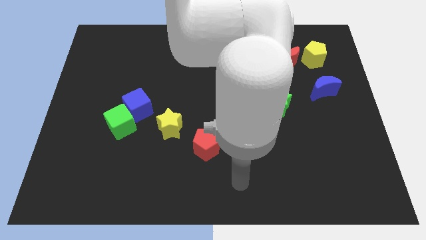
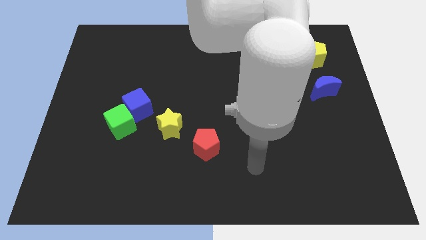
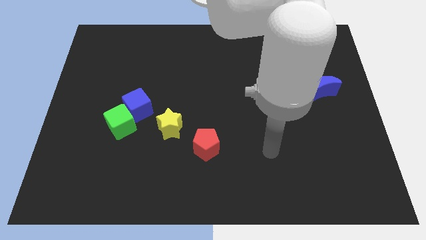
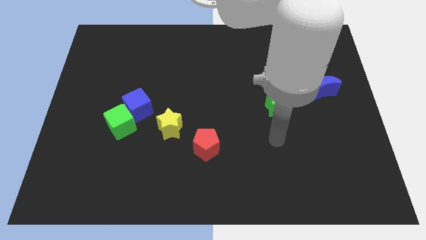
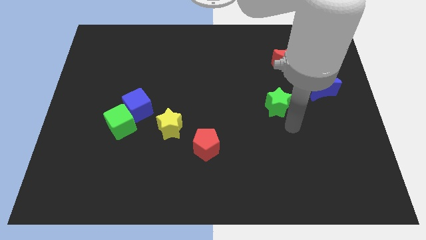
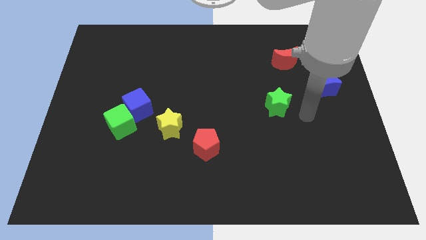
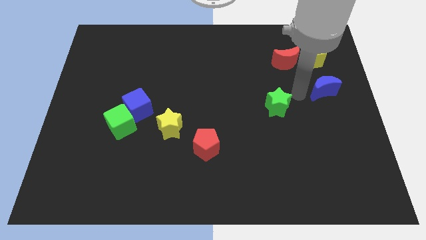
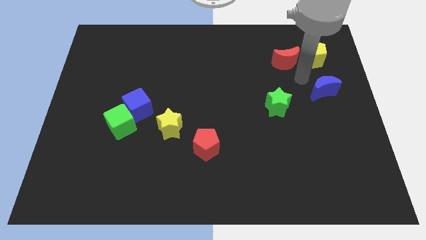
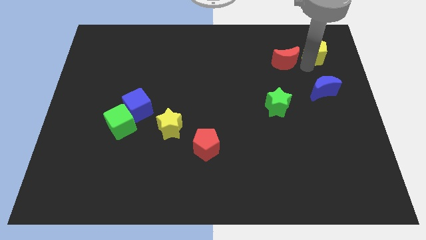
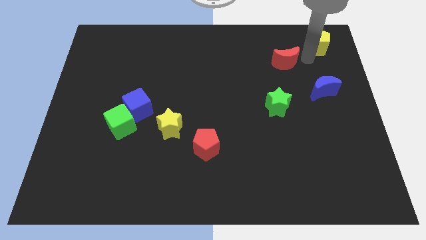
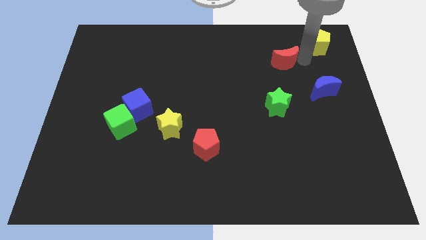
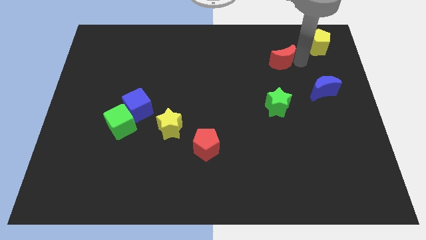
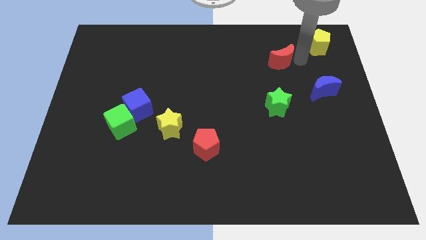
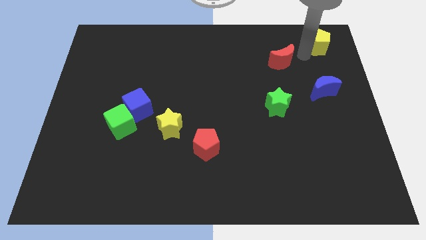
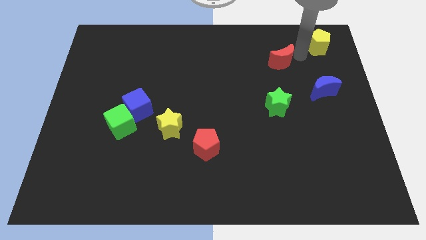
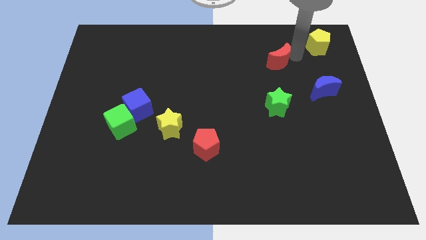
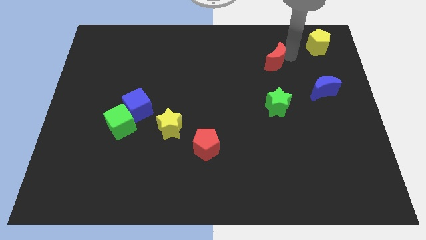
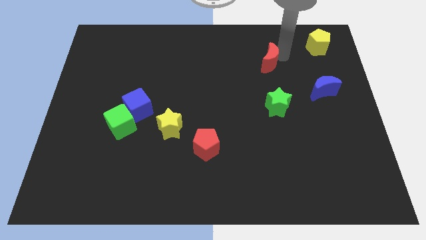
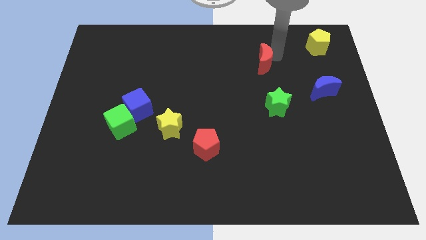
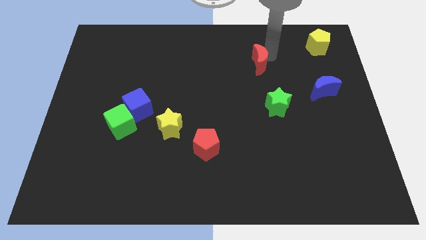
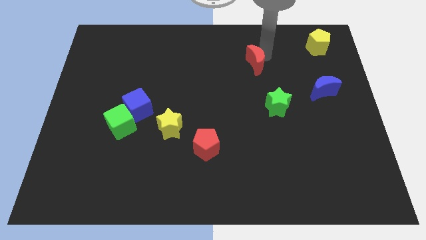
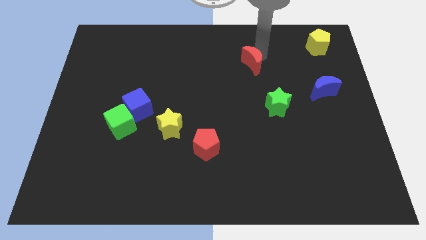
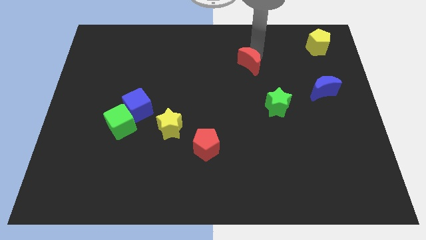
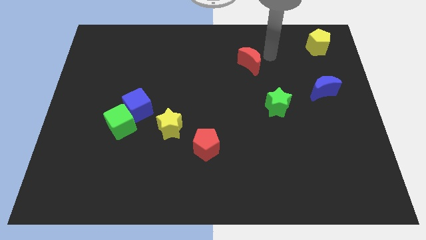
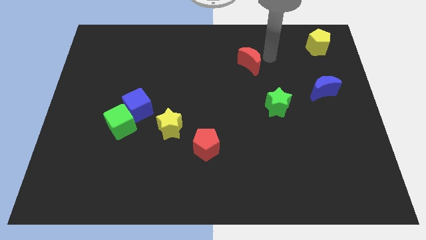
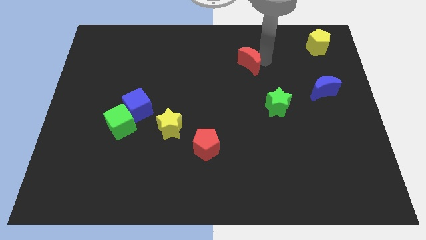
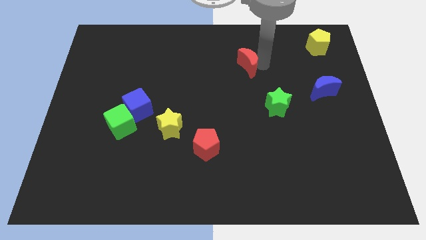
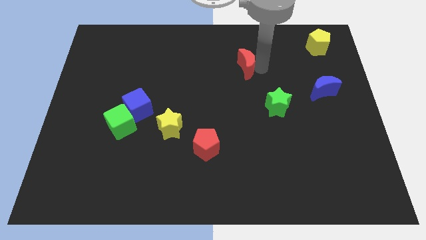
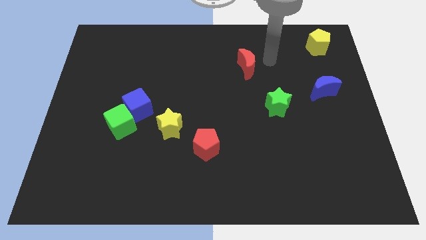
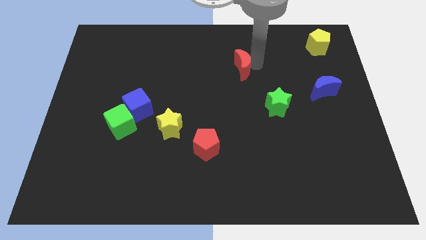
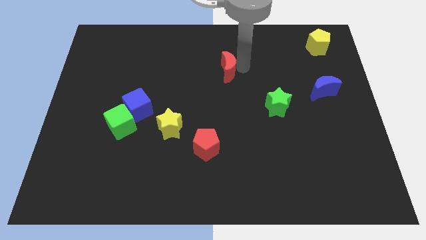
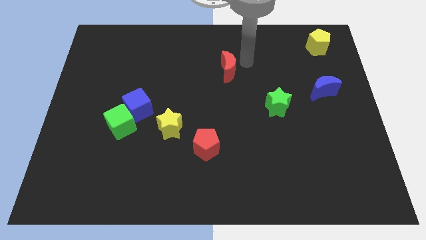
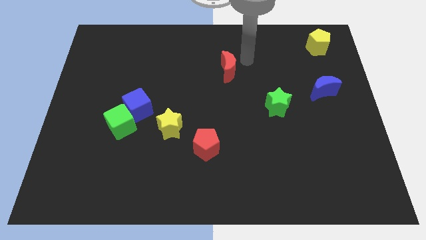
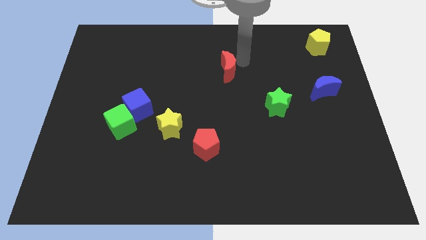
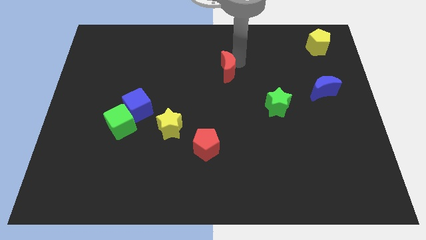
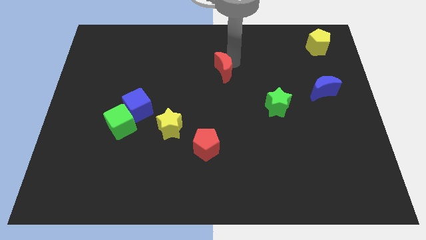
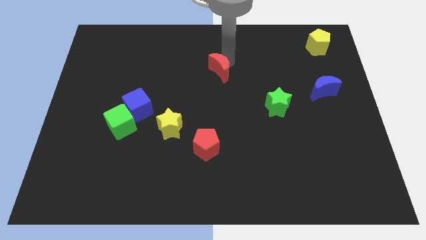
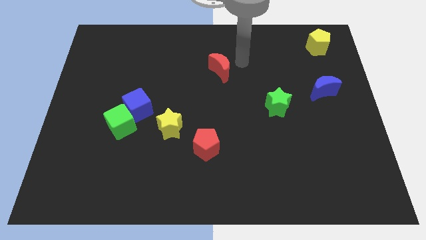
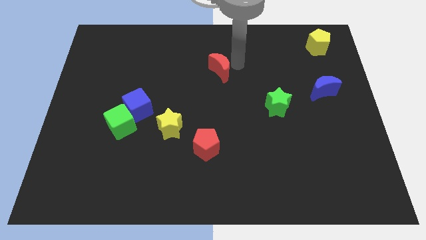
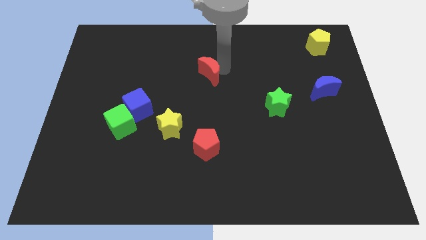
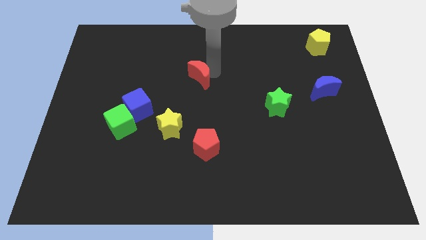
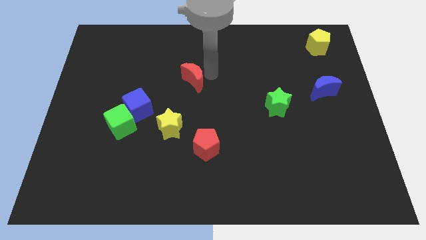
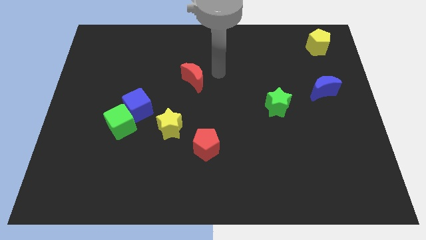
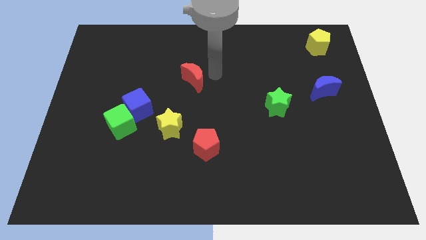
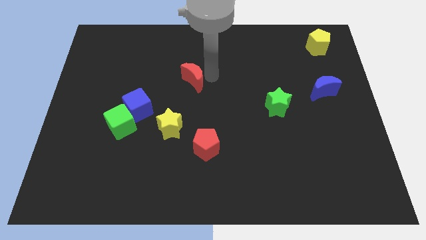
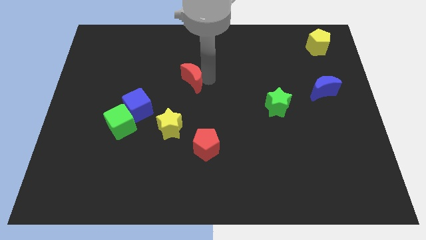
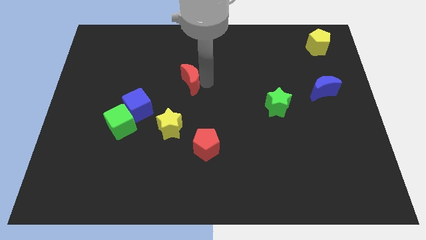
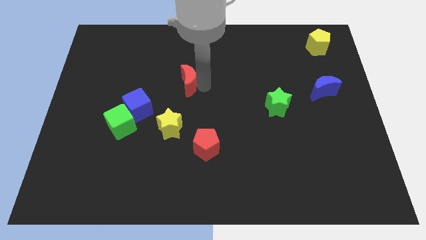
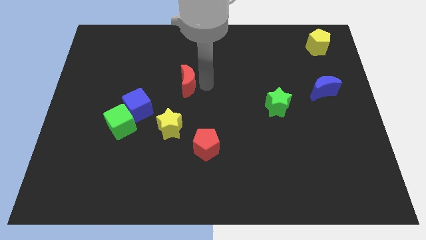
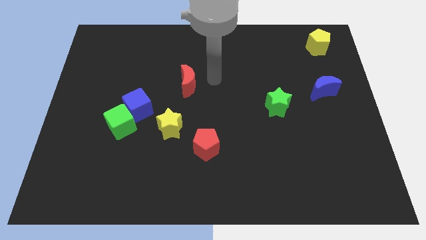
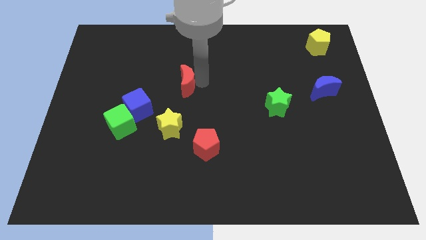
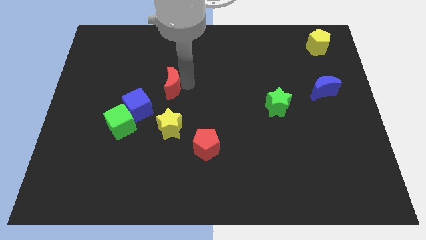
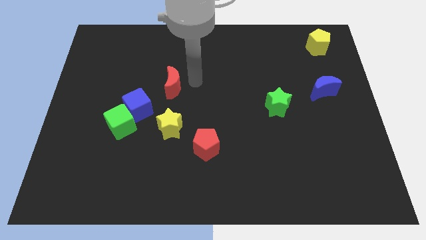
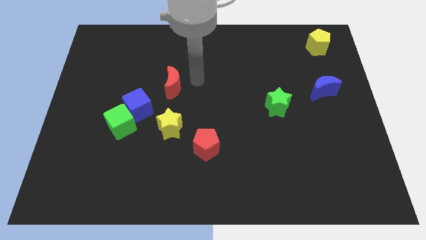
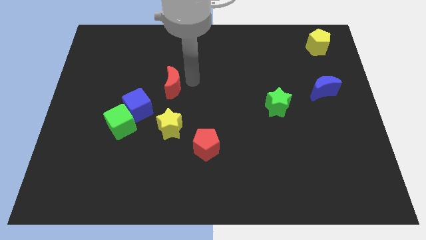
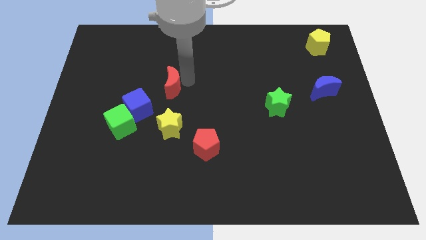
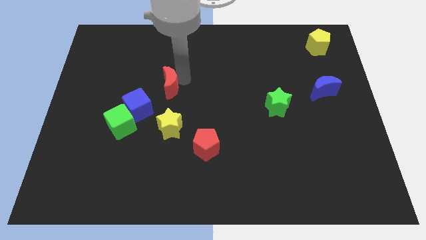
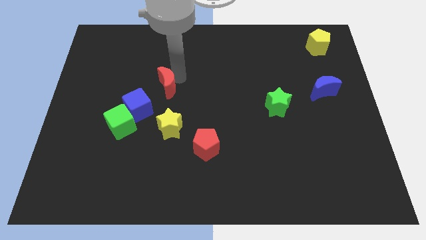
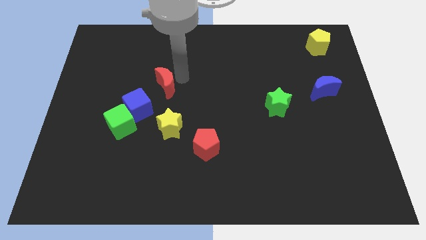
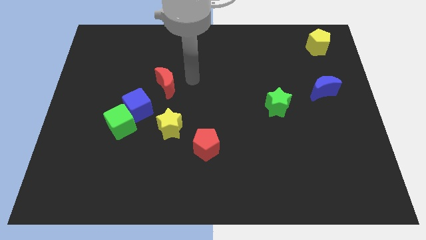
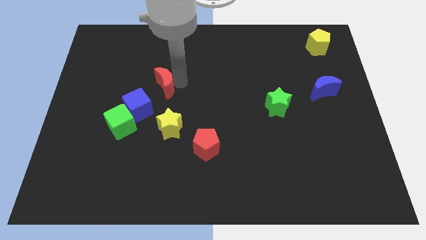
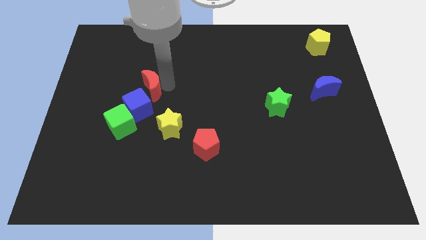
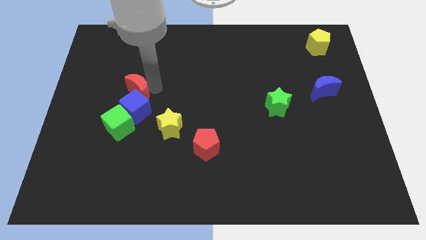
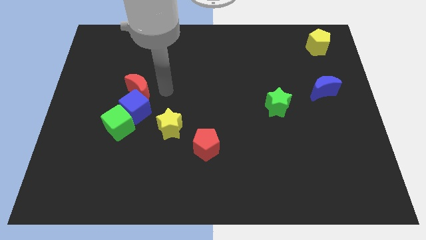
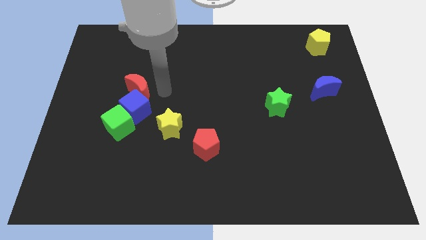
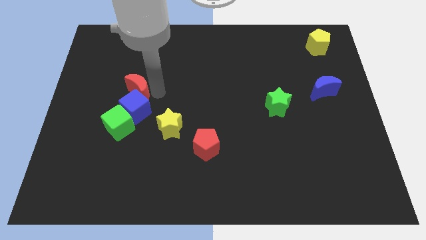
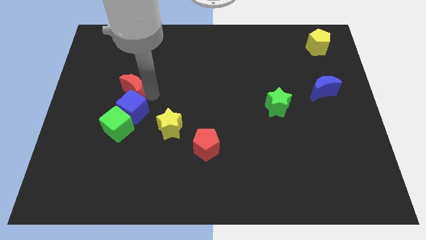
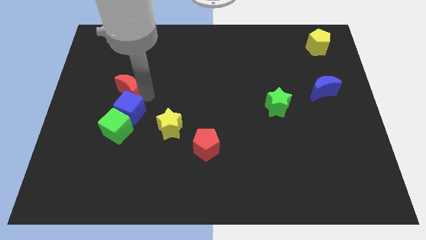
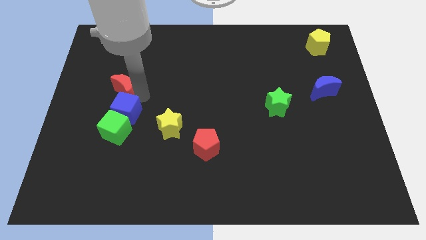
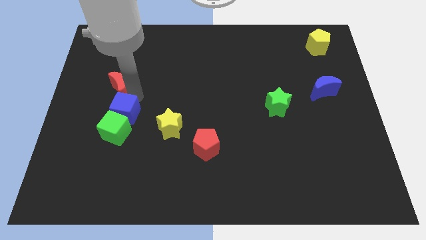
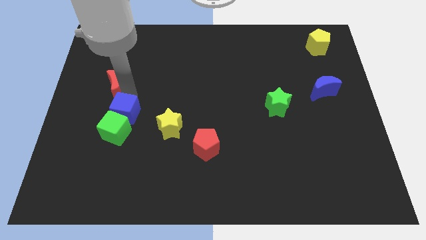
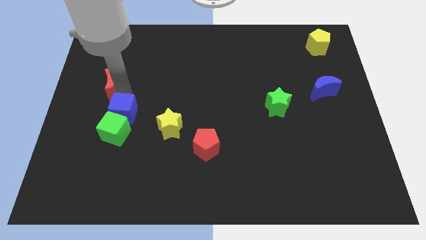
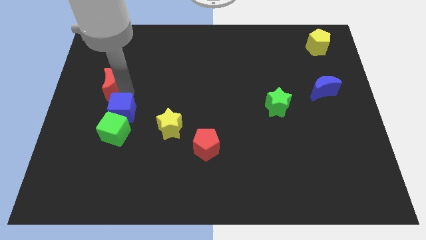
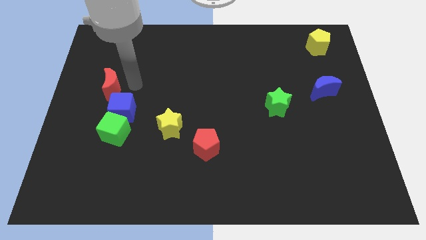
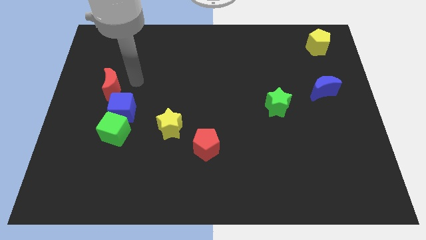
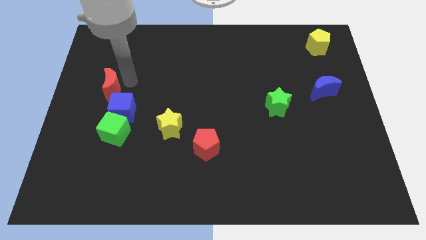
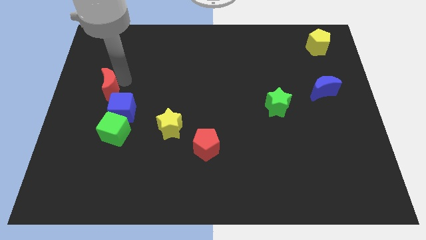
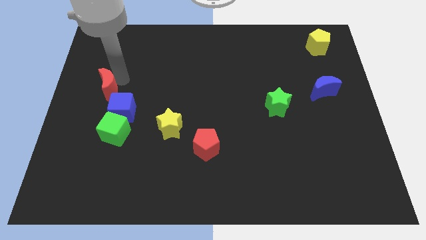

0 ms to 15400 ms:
push the red moon to the left side of the board
